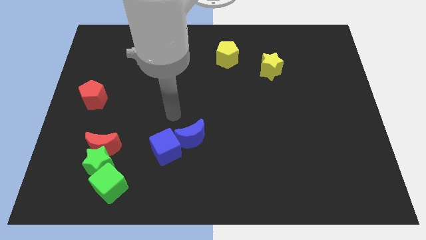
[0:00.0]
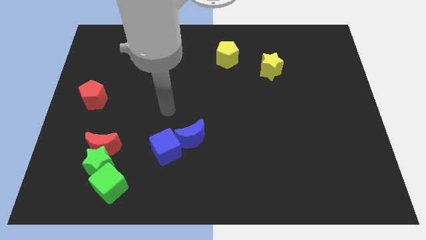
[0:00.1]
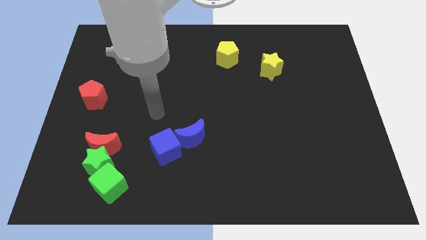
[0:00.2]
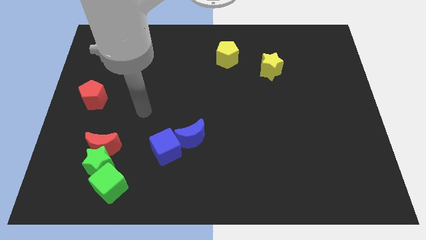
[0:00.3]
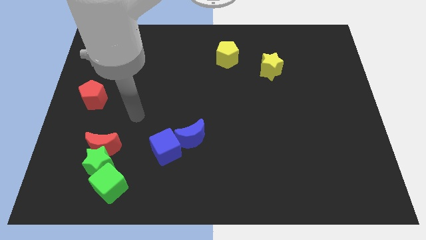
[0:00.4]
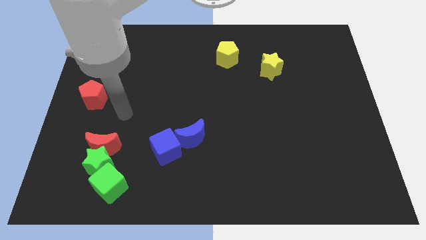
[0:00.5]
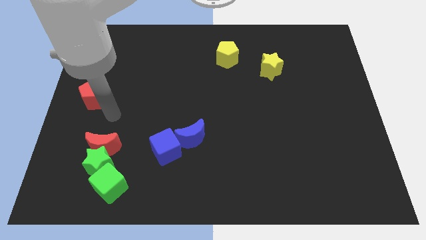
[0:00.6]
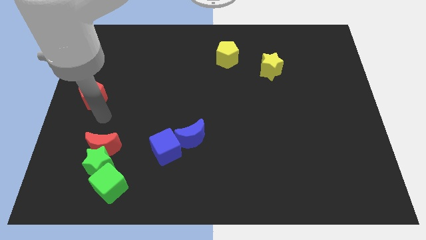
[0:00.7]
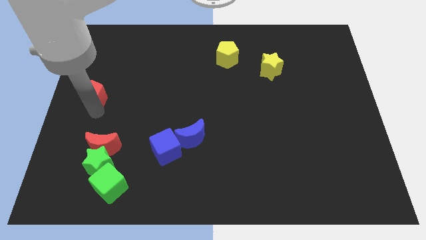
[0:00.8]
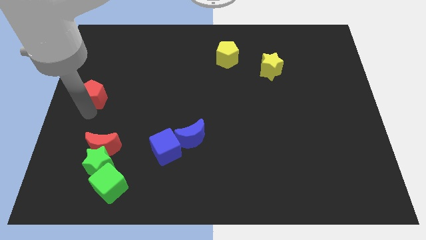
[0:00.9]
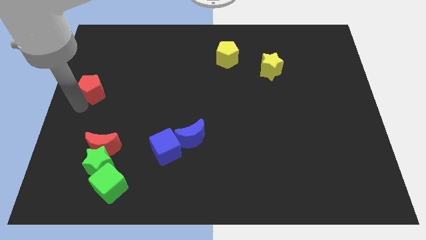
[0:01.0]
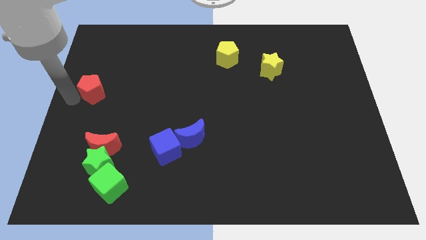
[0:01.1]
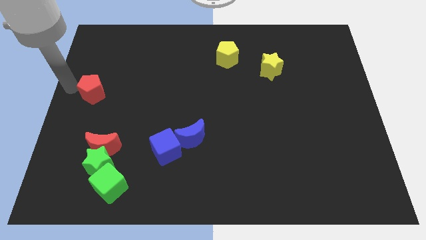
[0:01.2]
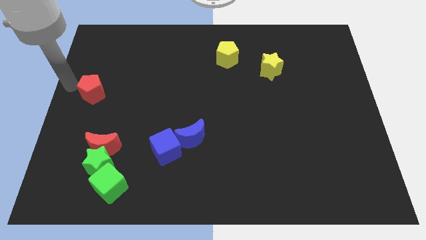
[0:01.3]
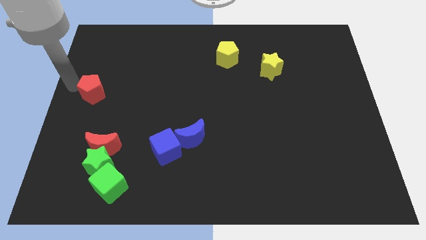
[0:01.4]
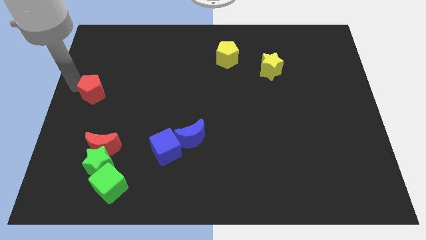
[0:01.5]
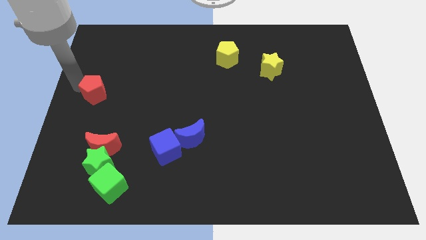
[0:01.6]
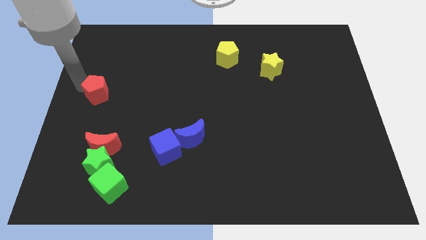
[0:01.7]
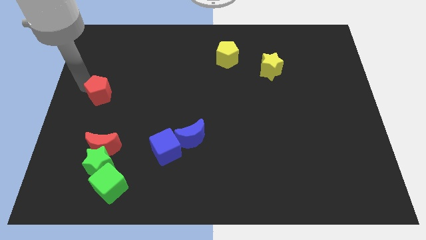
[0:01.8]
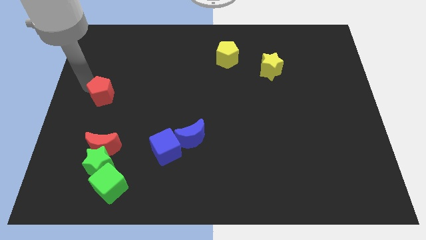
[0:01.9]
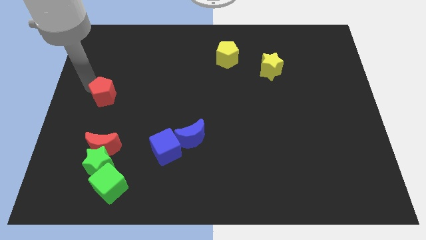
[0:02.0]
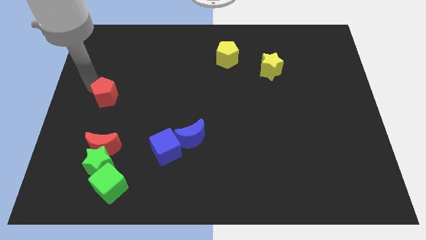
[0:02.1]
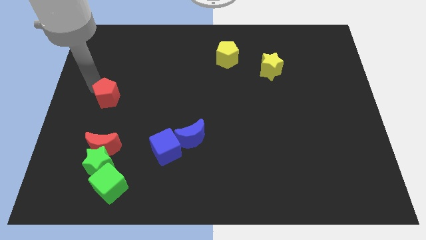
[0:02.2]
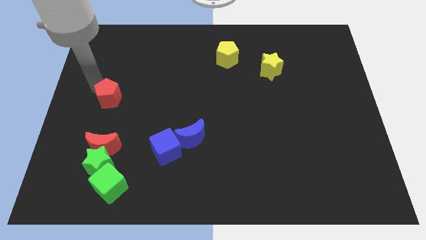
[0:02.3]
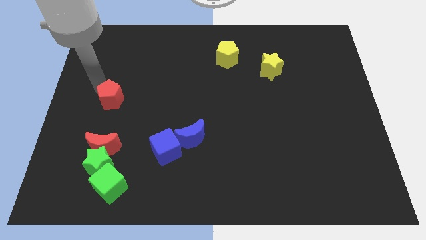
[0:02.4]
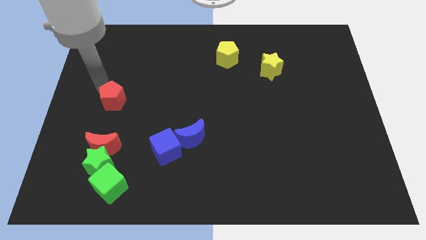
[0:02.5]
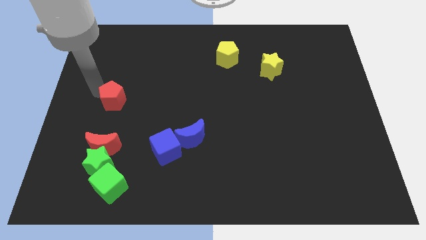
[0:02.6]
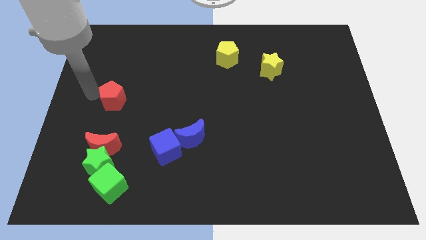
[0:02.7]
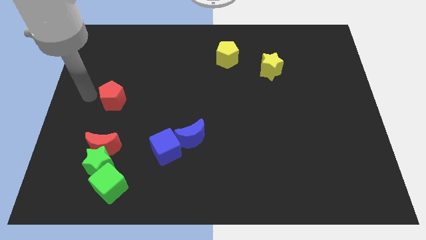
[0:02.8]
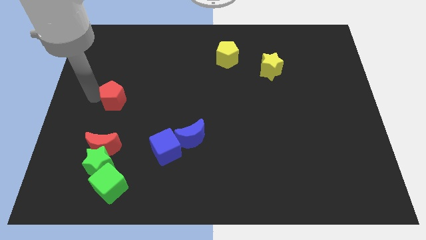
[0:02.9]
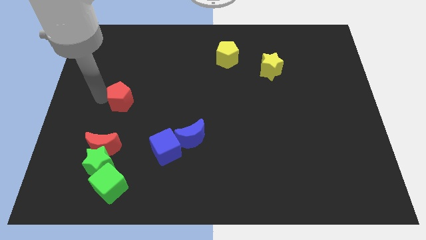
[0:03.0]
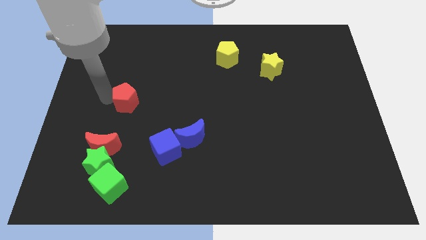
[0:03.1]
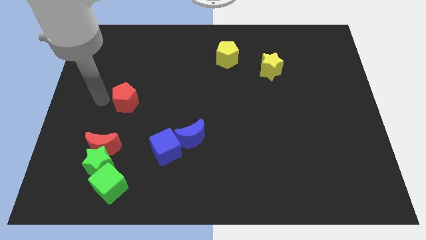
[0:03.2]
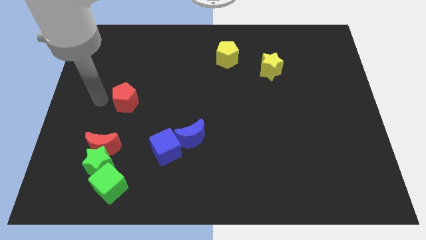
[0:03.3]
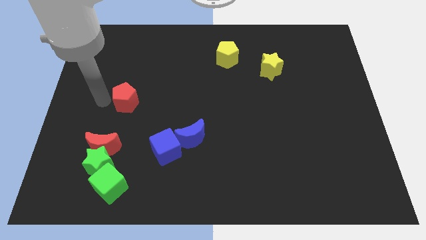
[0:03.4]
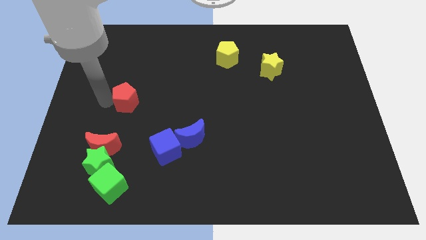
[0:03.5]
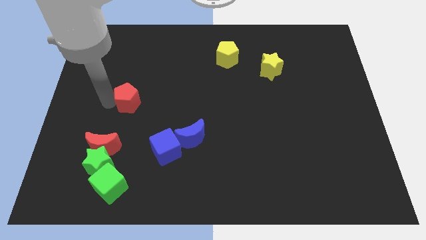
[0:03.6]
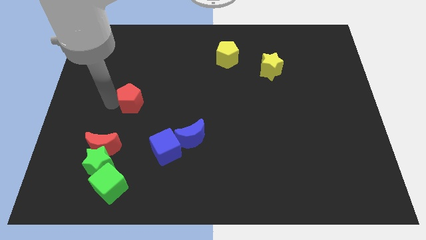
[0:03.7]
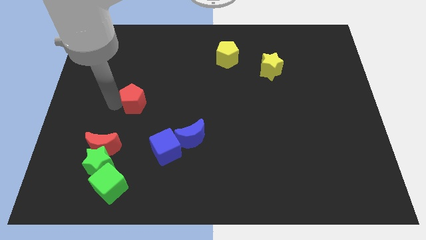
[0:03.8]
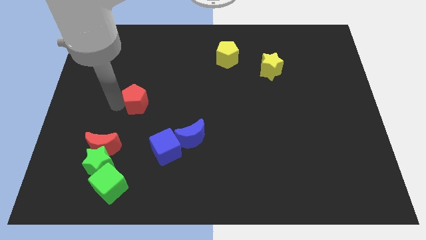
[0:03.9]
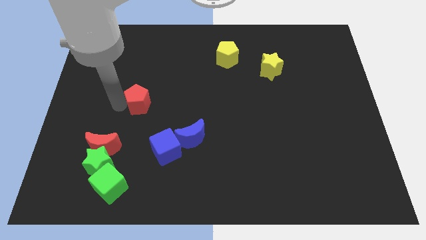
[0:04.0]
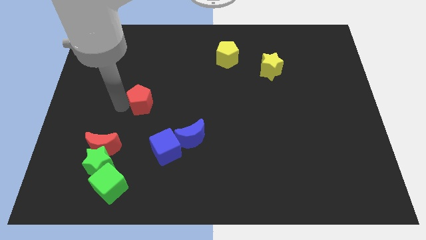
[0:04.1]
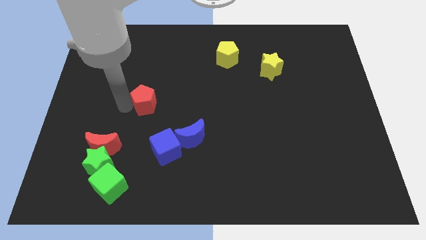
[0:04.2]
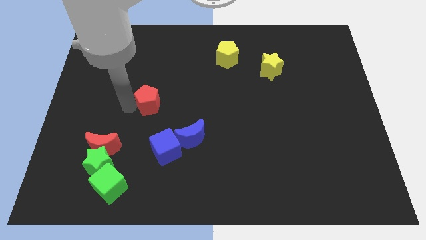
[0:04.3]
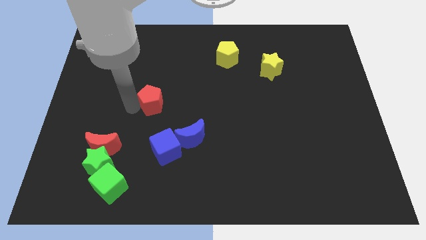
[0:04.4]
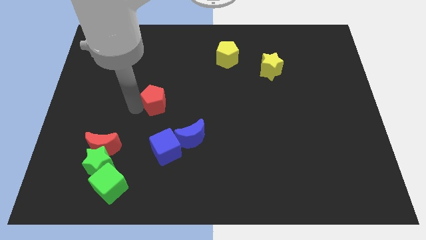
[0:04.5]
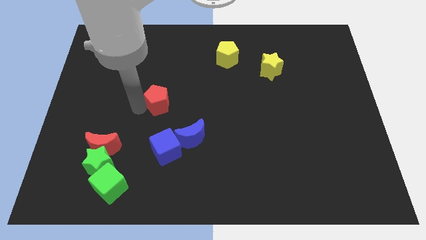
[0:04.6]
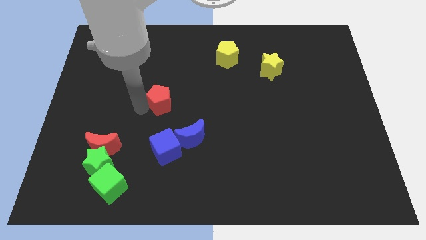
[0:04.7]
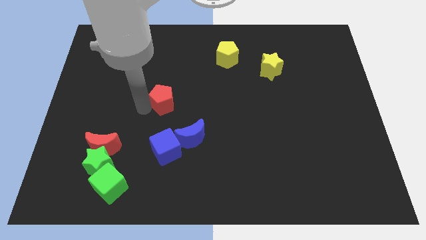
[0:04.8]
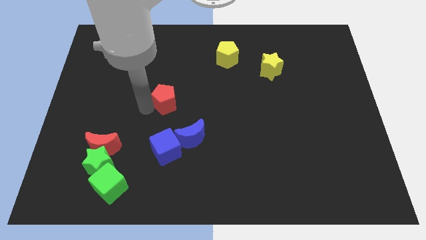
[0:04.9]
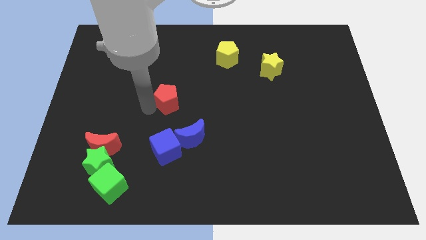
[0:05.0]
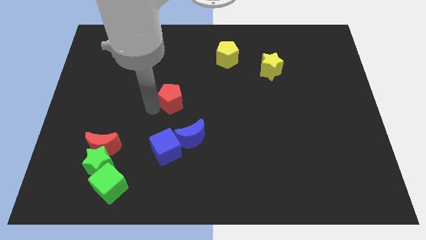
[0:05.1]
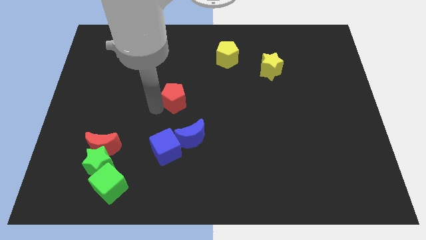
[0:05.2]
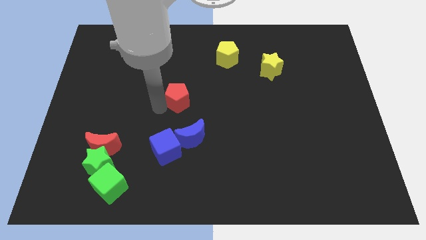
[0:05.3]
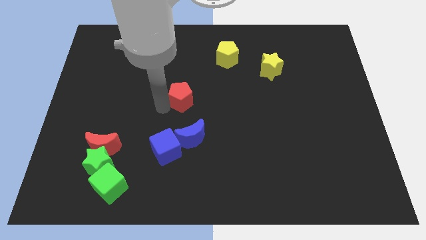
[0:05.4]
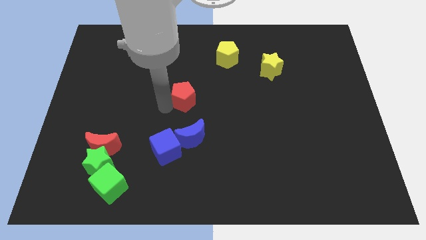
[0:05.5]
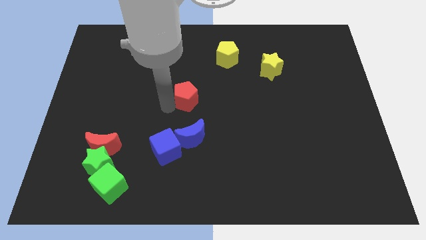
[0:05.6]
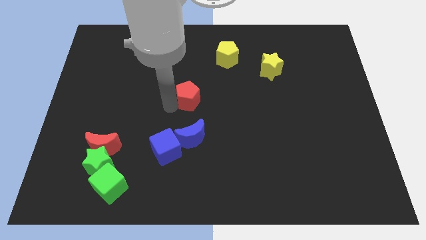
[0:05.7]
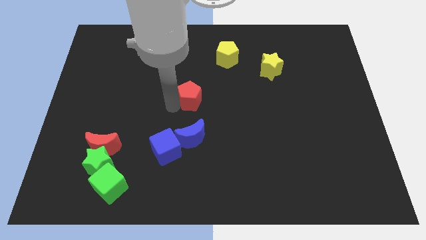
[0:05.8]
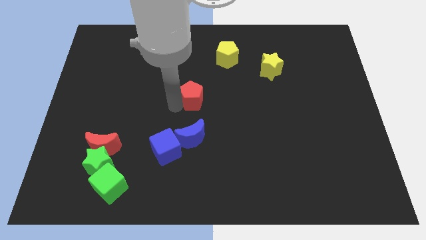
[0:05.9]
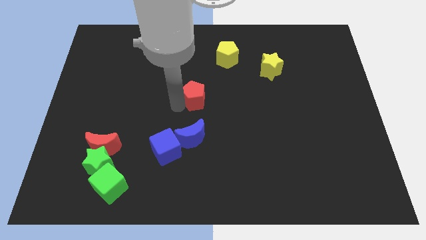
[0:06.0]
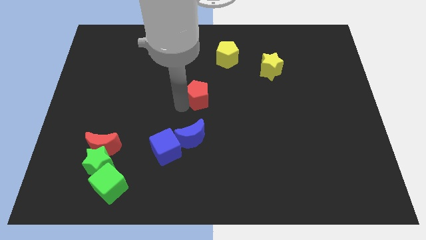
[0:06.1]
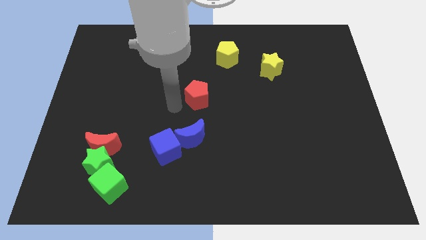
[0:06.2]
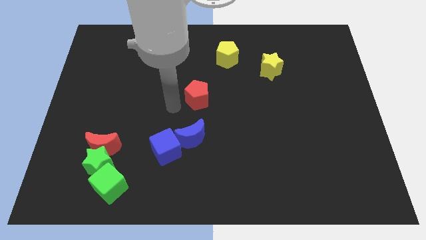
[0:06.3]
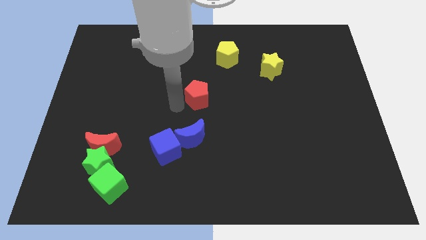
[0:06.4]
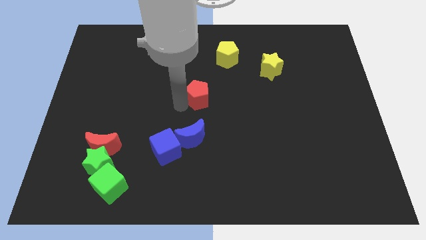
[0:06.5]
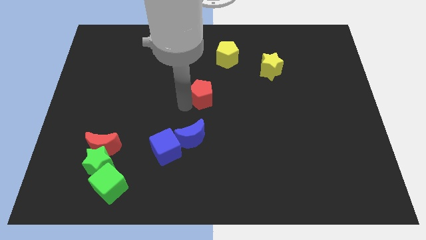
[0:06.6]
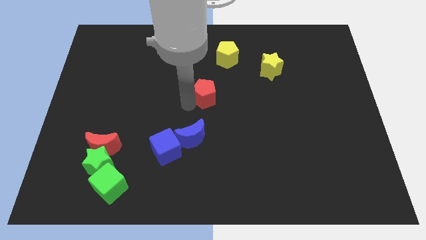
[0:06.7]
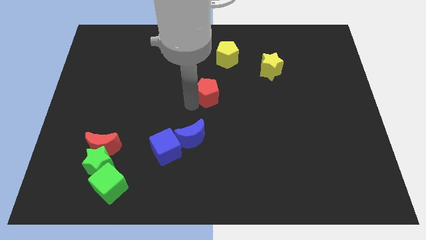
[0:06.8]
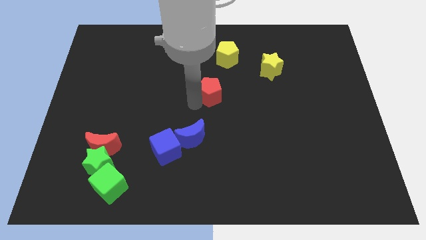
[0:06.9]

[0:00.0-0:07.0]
put the red pentagon below the yellow pentagon

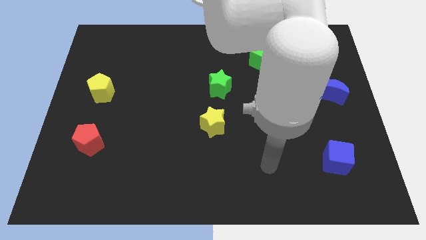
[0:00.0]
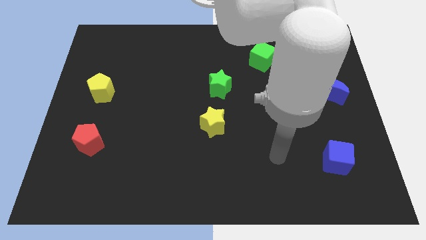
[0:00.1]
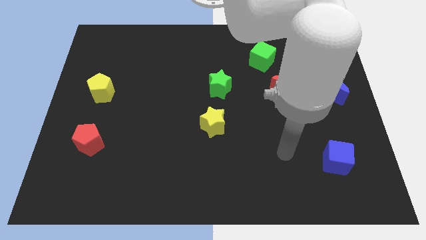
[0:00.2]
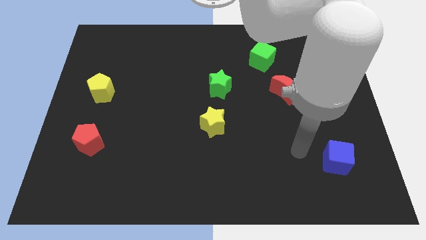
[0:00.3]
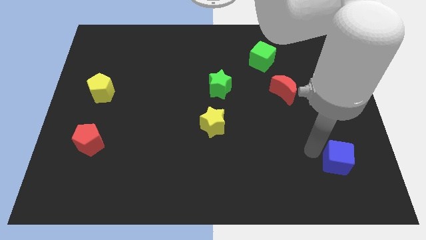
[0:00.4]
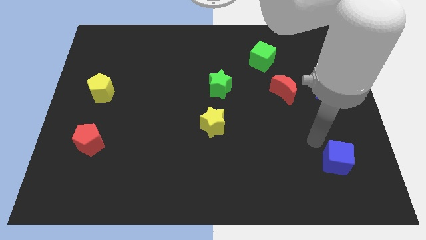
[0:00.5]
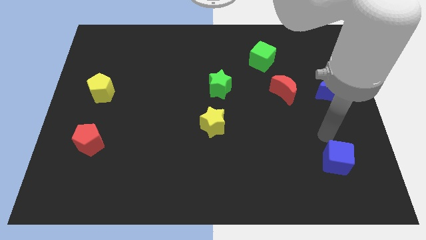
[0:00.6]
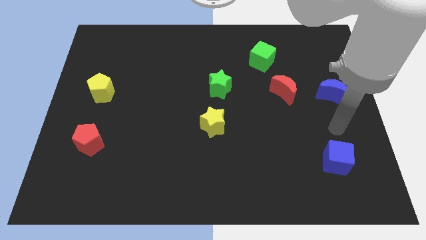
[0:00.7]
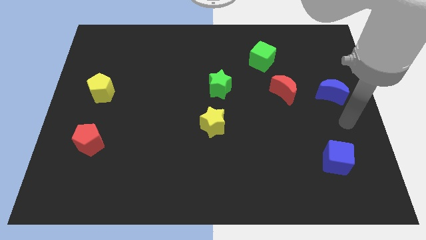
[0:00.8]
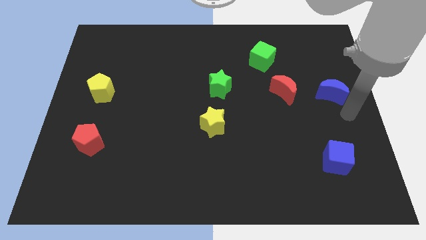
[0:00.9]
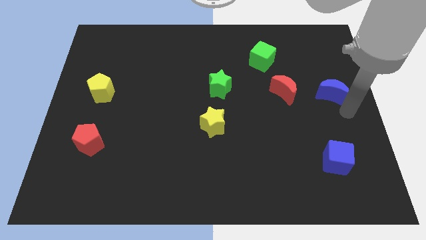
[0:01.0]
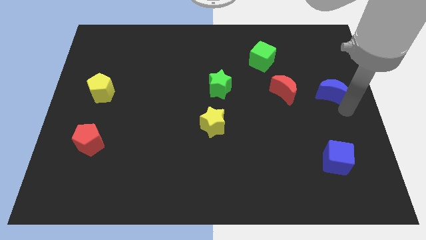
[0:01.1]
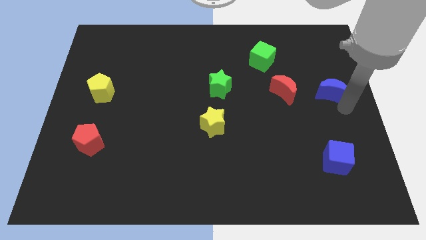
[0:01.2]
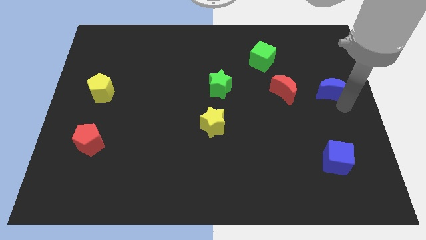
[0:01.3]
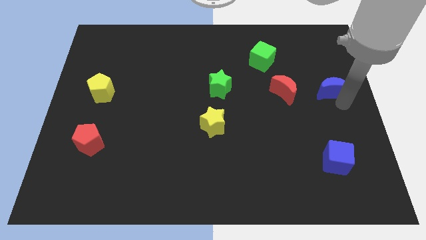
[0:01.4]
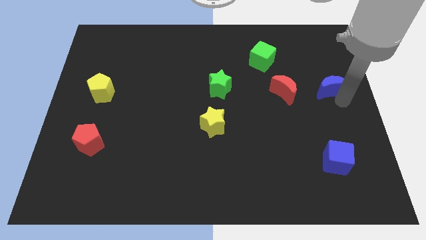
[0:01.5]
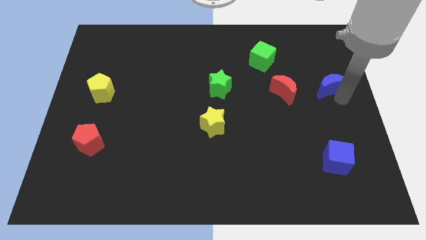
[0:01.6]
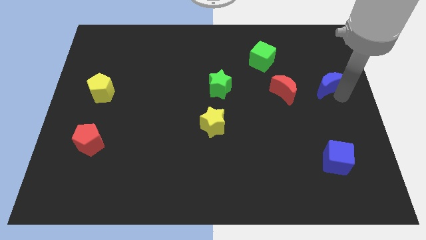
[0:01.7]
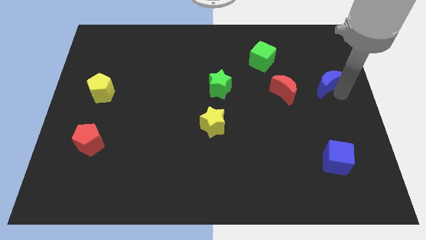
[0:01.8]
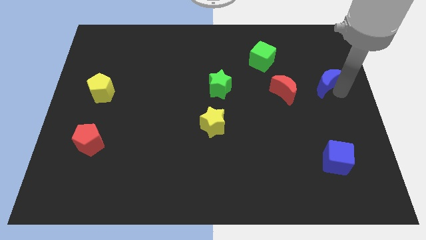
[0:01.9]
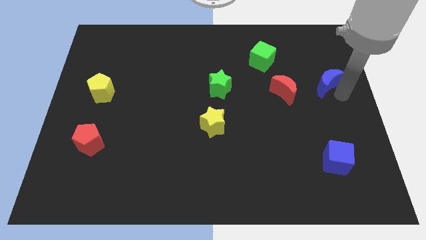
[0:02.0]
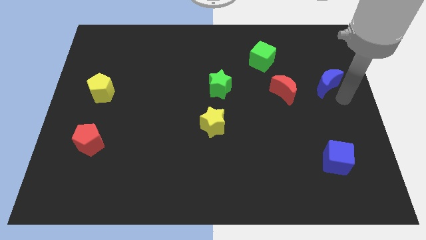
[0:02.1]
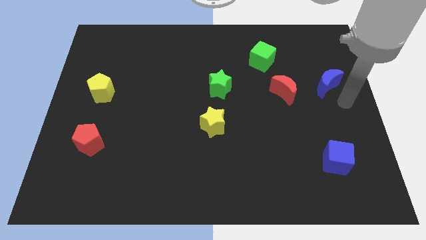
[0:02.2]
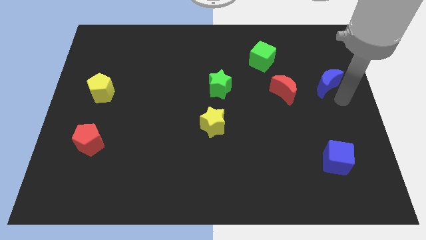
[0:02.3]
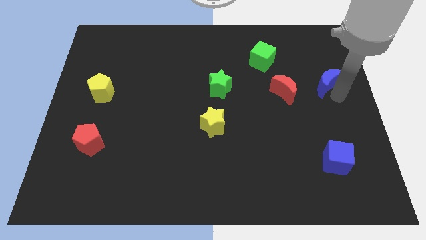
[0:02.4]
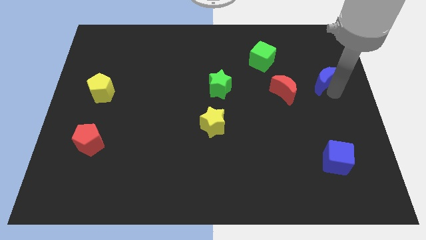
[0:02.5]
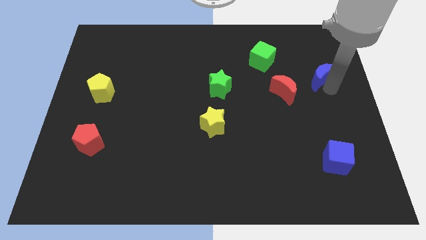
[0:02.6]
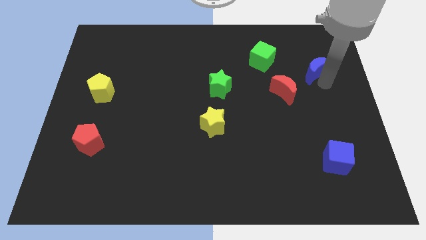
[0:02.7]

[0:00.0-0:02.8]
push the blue moon just right of the green cube
